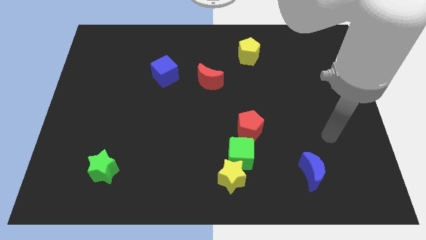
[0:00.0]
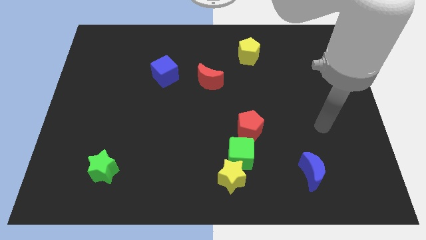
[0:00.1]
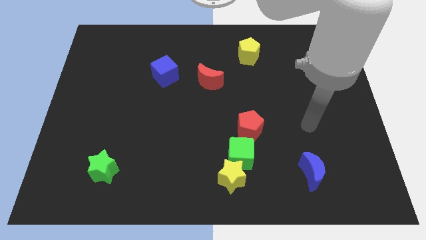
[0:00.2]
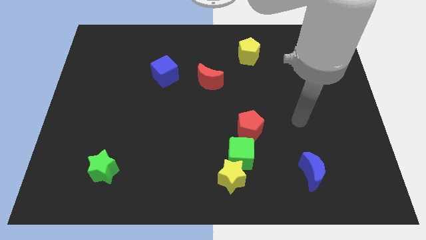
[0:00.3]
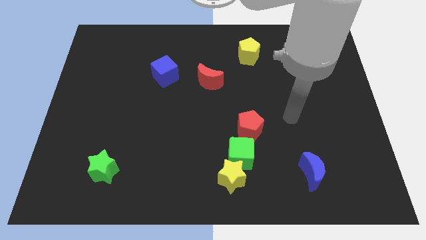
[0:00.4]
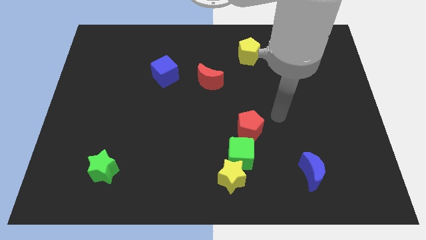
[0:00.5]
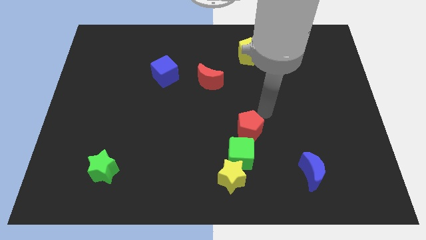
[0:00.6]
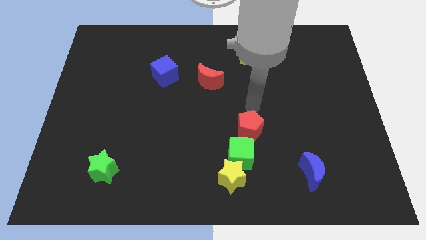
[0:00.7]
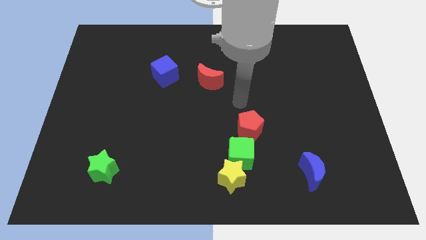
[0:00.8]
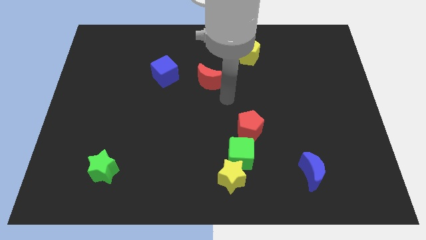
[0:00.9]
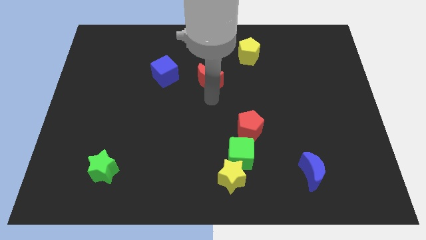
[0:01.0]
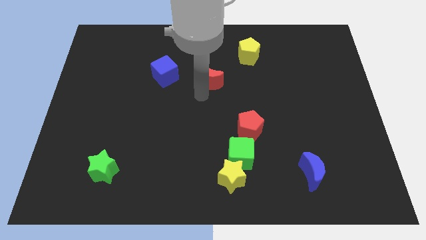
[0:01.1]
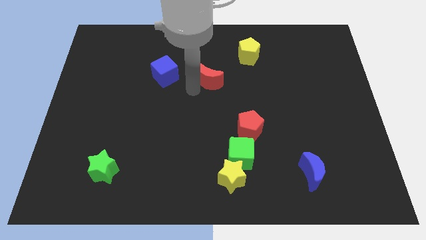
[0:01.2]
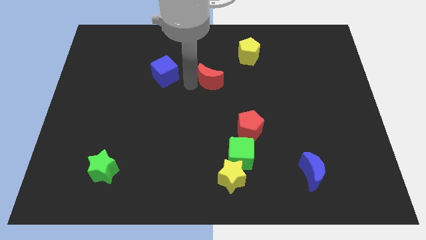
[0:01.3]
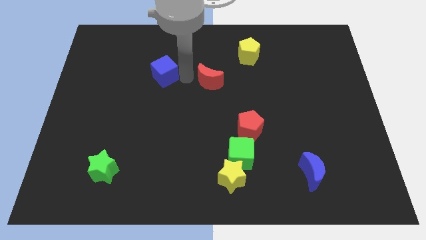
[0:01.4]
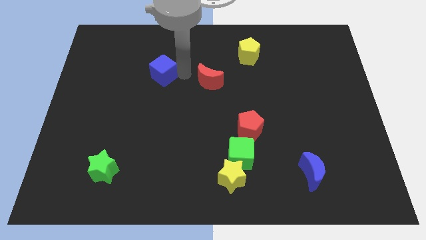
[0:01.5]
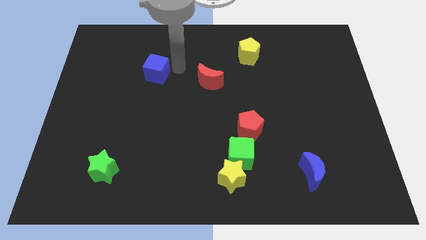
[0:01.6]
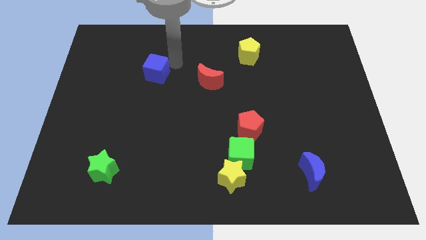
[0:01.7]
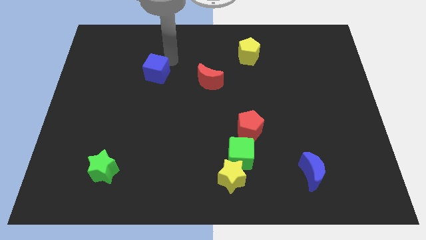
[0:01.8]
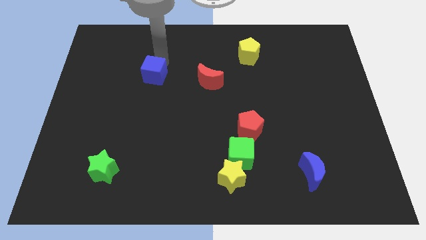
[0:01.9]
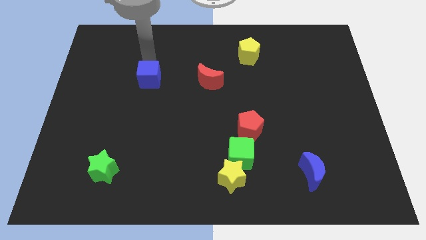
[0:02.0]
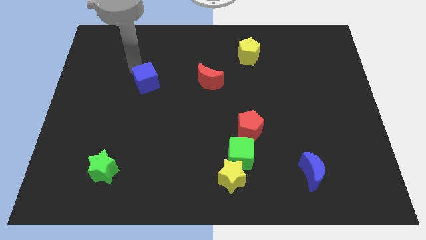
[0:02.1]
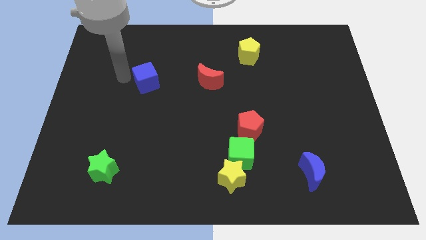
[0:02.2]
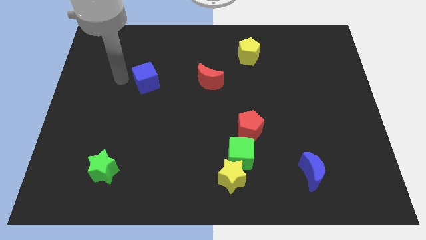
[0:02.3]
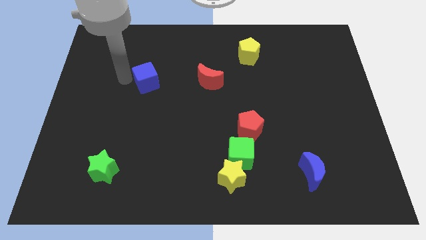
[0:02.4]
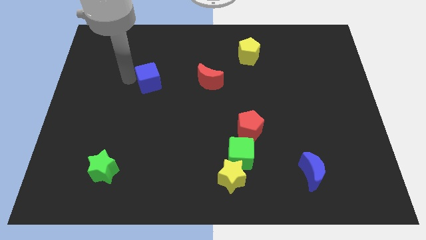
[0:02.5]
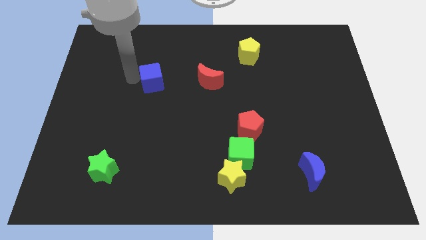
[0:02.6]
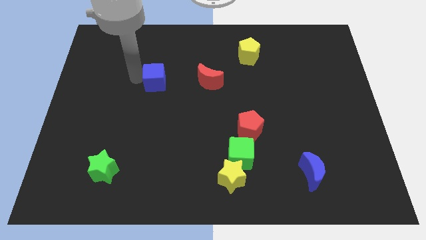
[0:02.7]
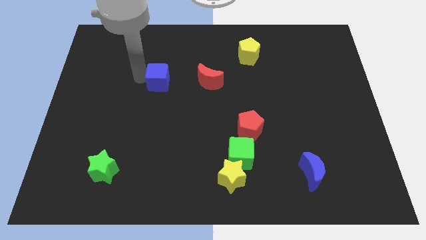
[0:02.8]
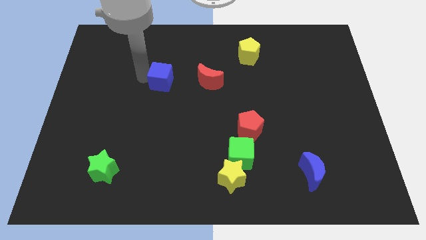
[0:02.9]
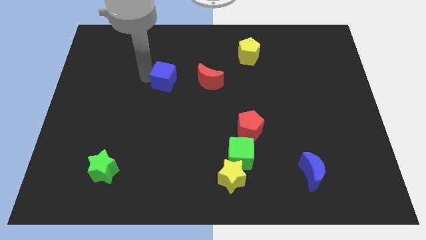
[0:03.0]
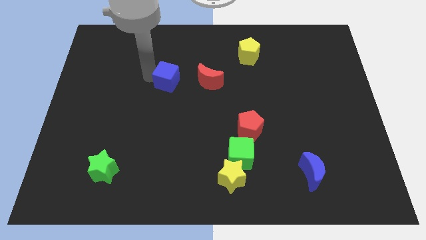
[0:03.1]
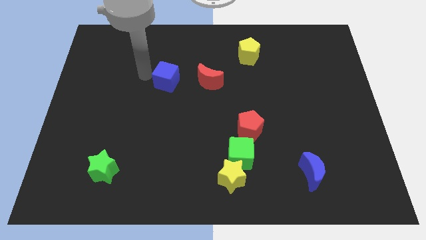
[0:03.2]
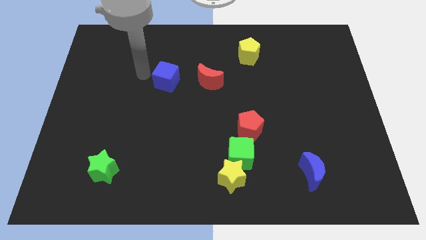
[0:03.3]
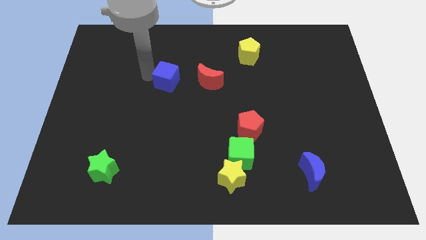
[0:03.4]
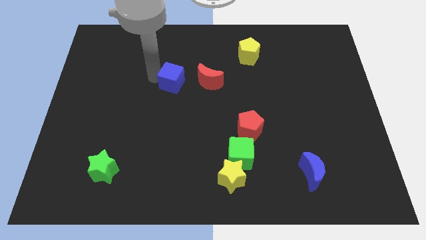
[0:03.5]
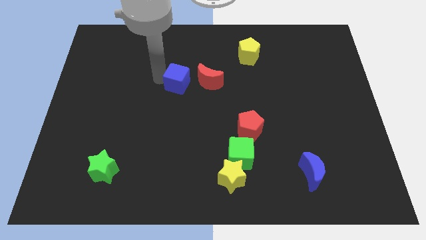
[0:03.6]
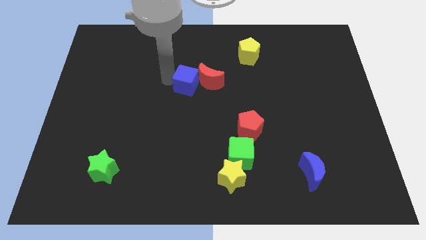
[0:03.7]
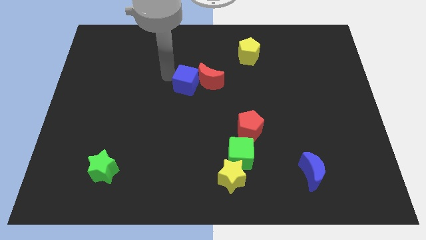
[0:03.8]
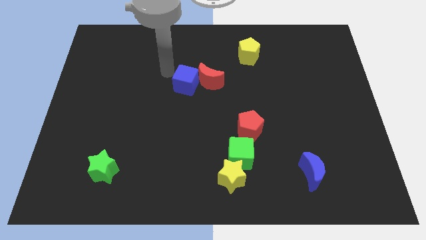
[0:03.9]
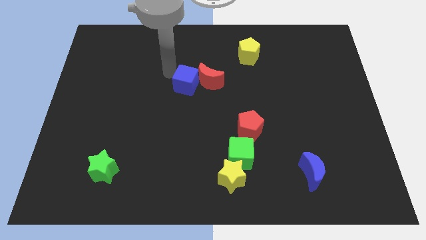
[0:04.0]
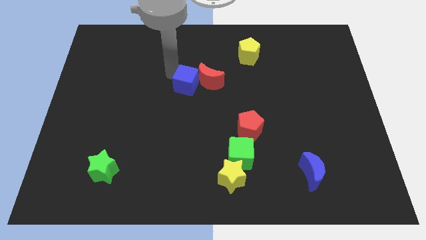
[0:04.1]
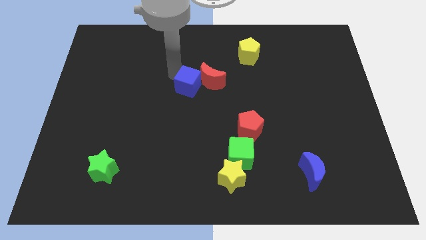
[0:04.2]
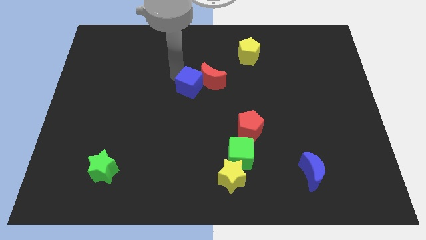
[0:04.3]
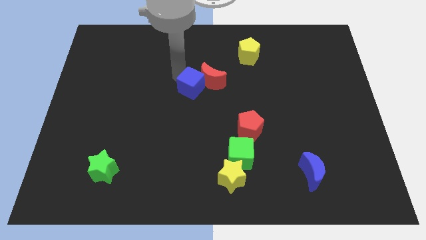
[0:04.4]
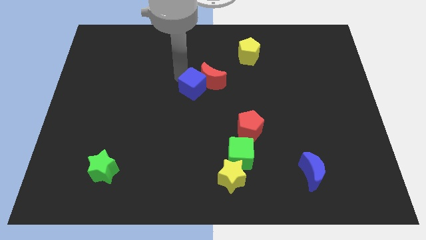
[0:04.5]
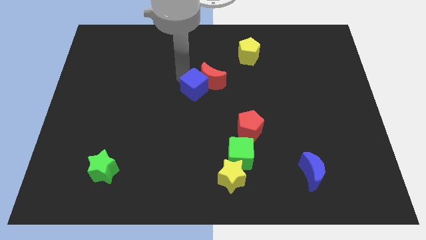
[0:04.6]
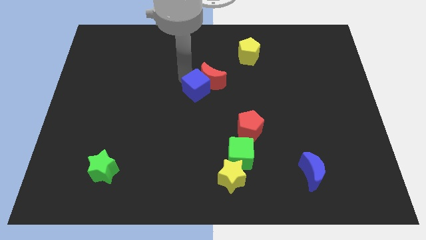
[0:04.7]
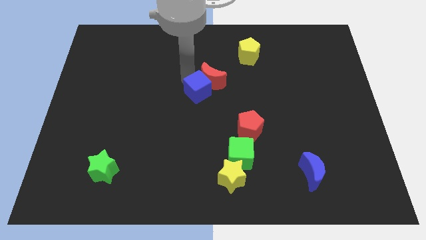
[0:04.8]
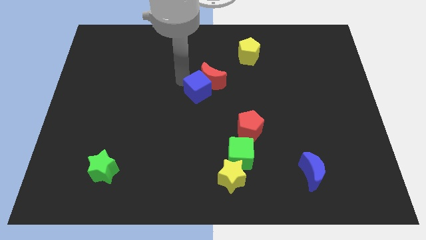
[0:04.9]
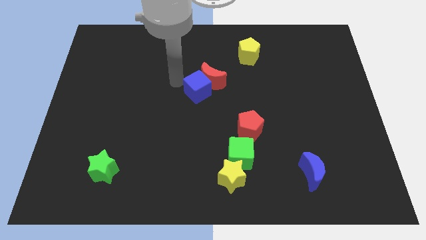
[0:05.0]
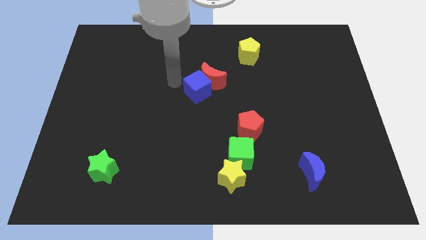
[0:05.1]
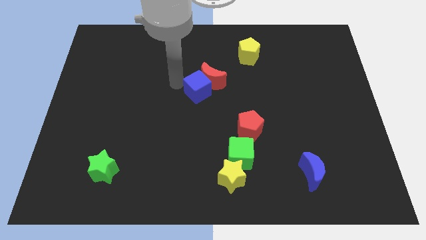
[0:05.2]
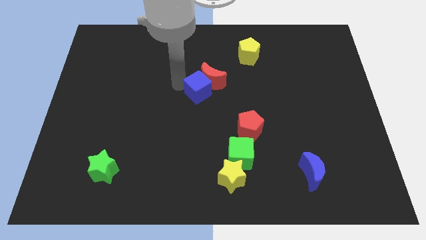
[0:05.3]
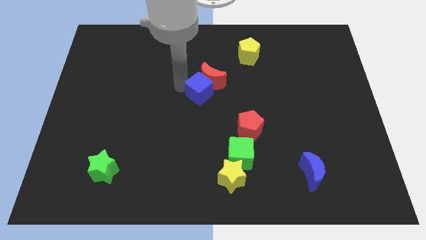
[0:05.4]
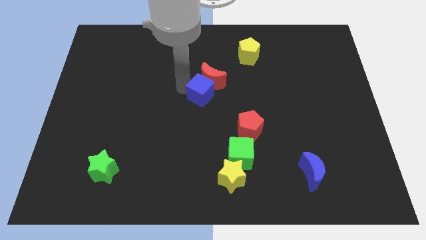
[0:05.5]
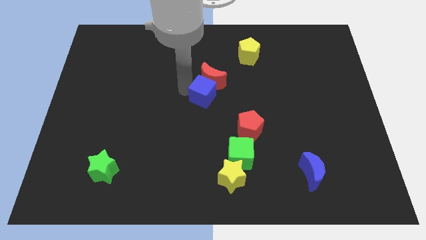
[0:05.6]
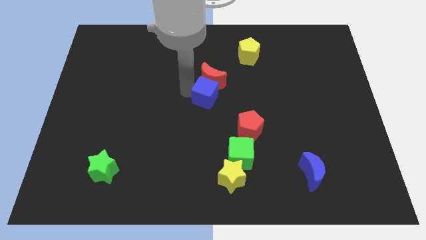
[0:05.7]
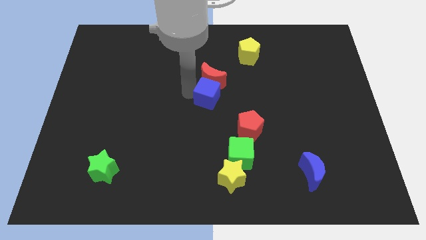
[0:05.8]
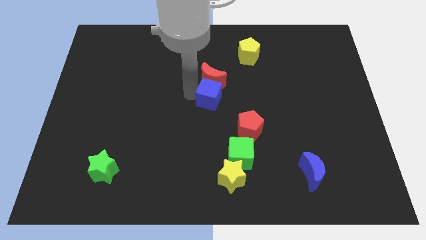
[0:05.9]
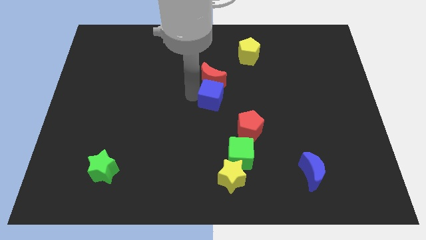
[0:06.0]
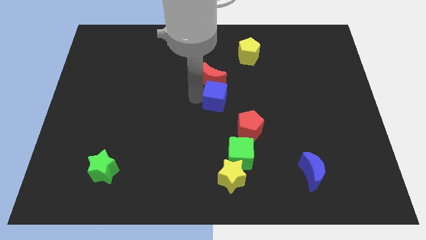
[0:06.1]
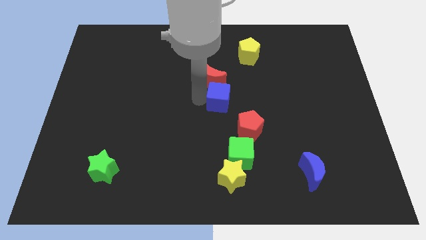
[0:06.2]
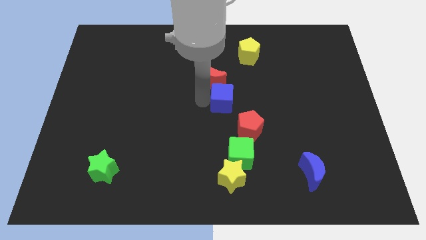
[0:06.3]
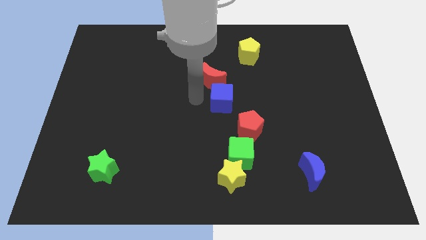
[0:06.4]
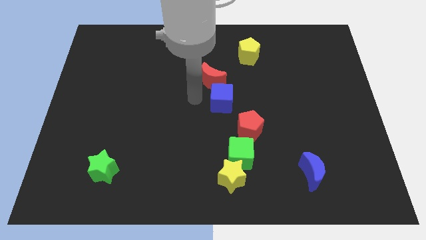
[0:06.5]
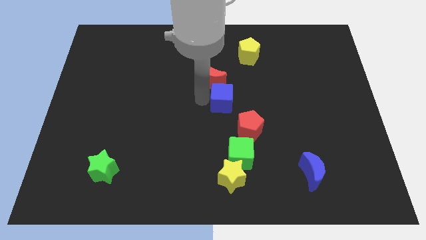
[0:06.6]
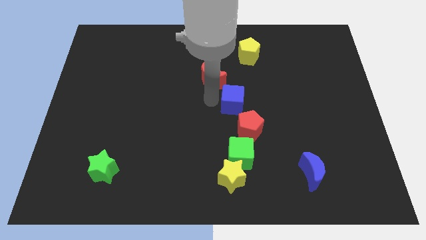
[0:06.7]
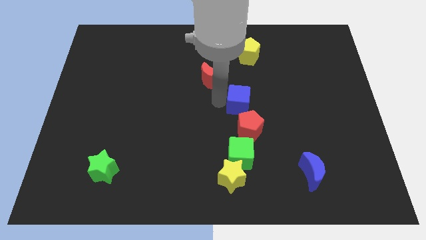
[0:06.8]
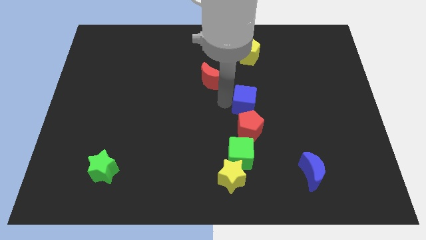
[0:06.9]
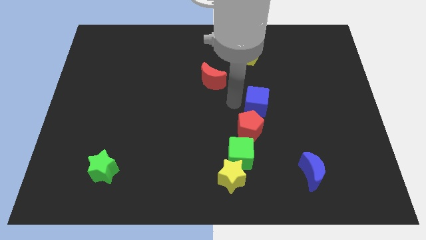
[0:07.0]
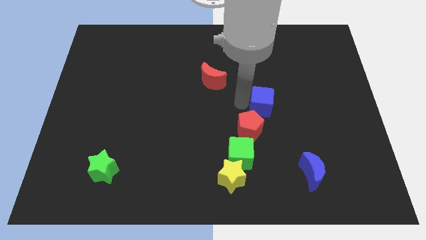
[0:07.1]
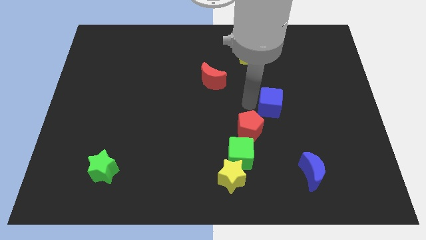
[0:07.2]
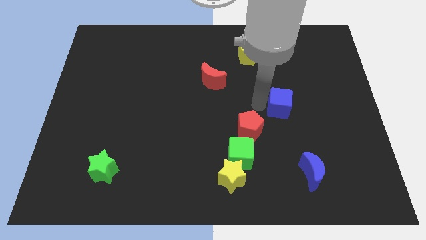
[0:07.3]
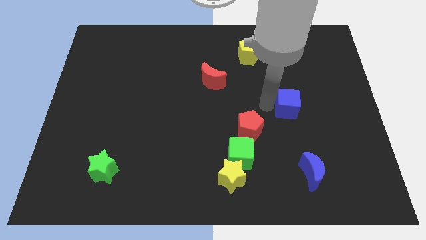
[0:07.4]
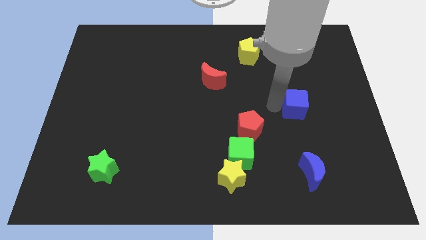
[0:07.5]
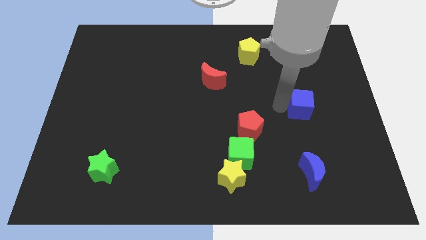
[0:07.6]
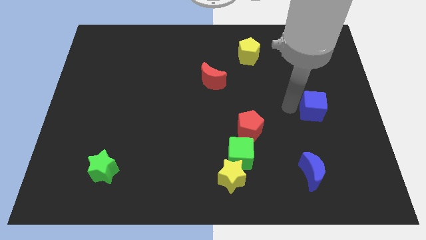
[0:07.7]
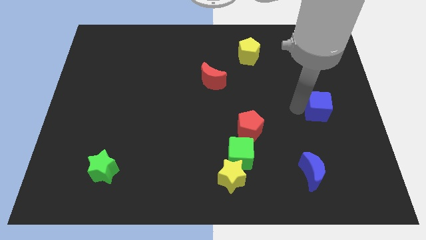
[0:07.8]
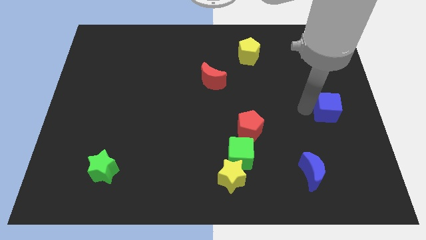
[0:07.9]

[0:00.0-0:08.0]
move the blue cube to the right side
